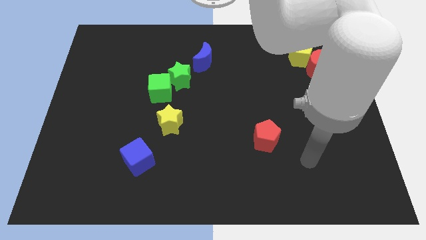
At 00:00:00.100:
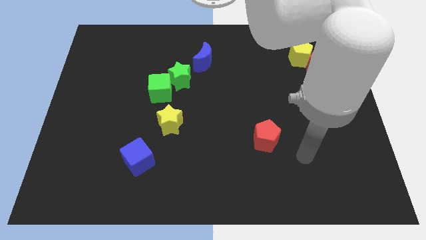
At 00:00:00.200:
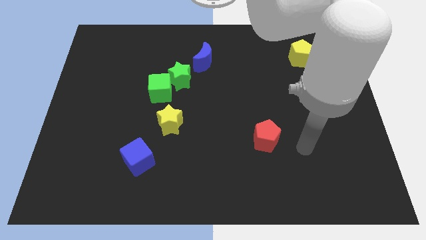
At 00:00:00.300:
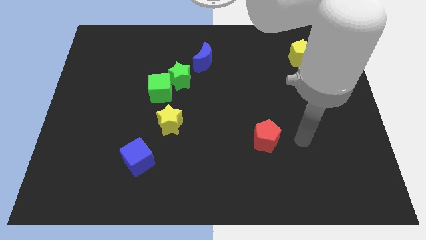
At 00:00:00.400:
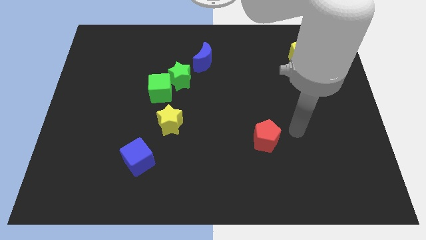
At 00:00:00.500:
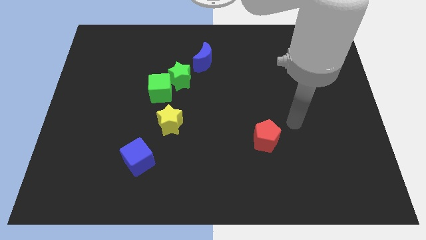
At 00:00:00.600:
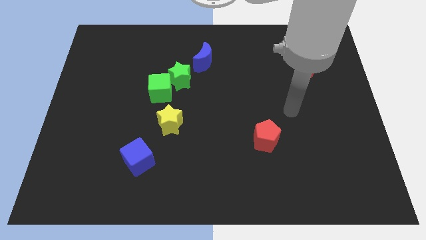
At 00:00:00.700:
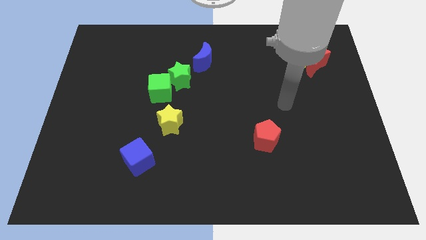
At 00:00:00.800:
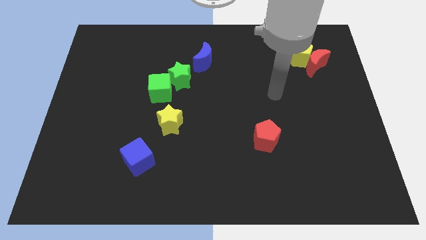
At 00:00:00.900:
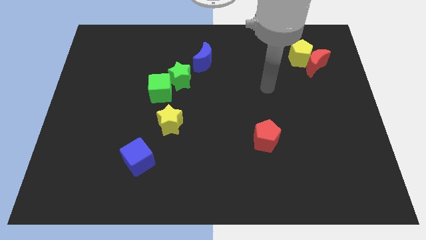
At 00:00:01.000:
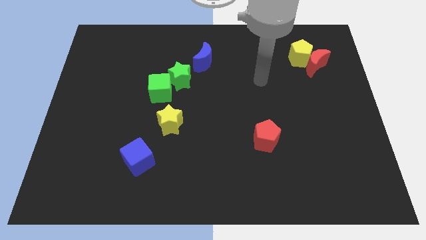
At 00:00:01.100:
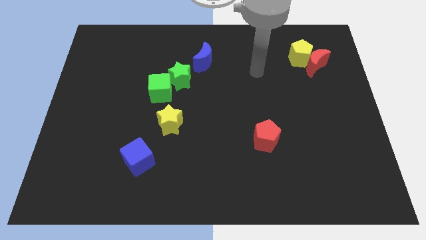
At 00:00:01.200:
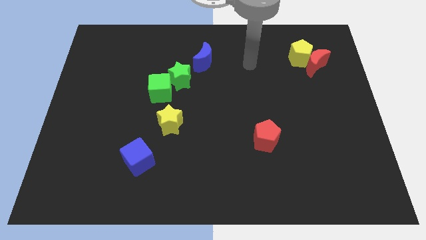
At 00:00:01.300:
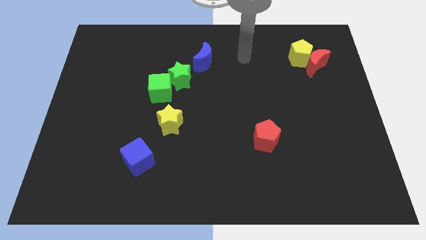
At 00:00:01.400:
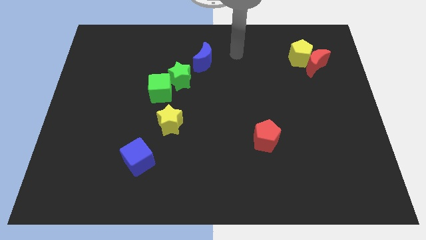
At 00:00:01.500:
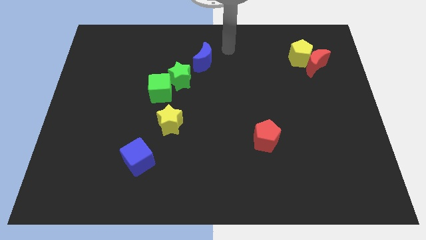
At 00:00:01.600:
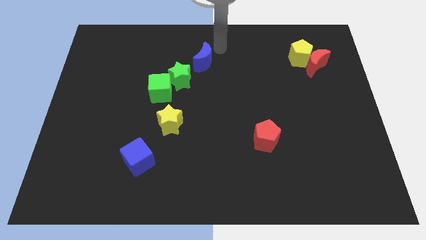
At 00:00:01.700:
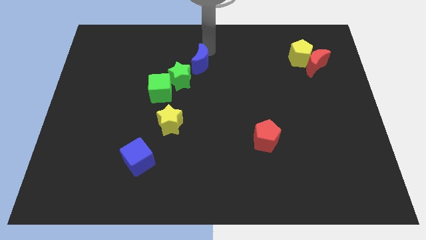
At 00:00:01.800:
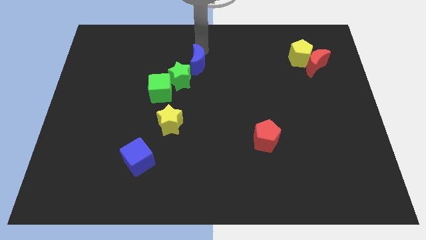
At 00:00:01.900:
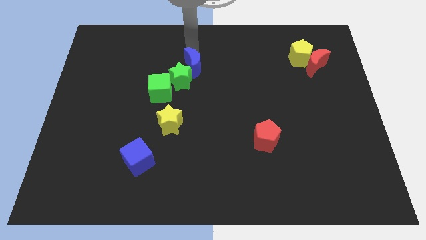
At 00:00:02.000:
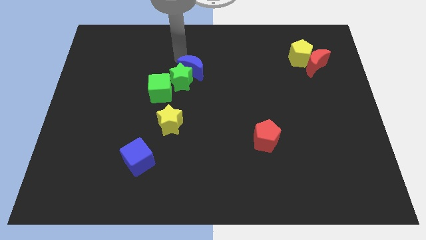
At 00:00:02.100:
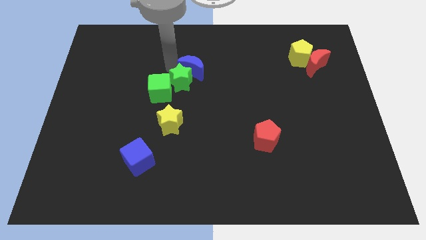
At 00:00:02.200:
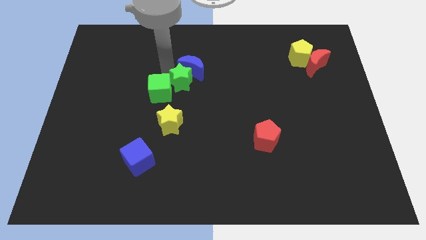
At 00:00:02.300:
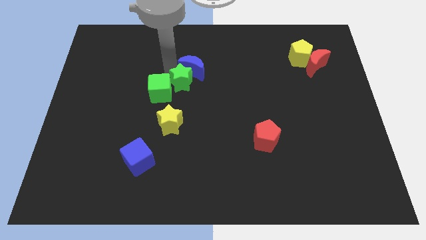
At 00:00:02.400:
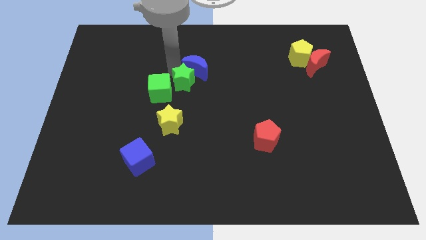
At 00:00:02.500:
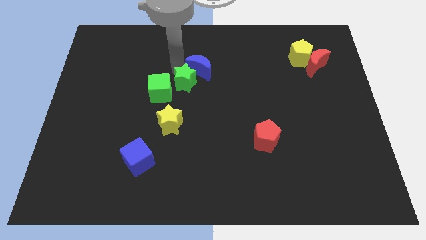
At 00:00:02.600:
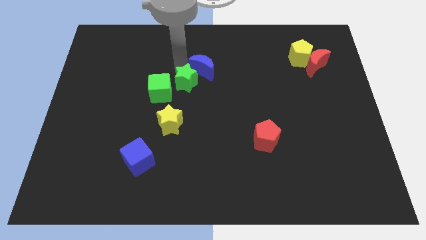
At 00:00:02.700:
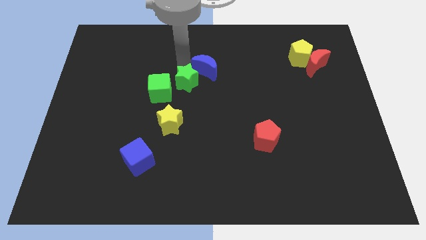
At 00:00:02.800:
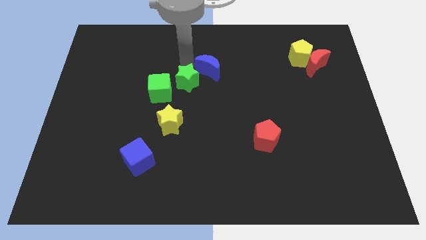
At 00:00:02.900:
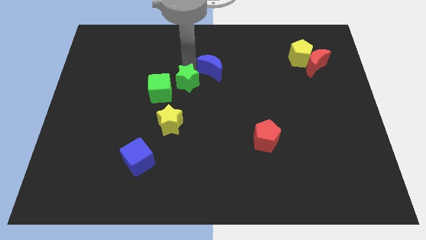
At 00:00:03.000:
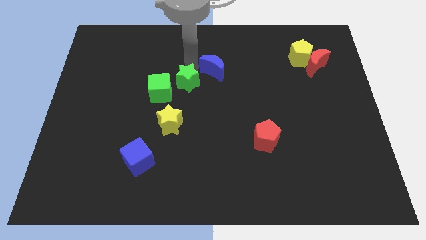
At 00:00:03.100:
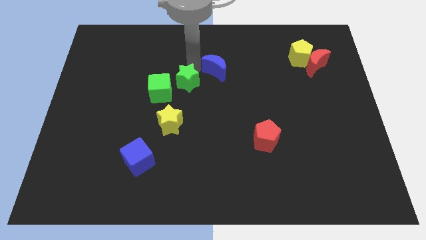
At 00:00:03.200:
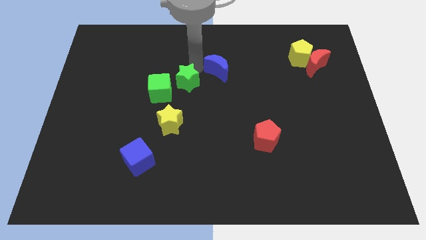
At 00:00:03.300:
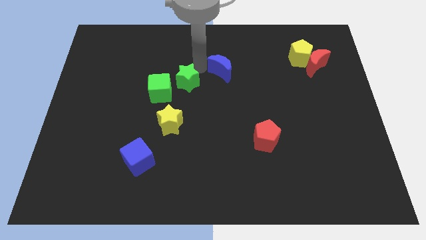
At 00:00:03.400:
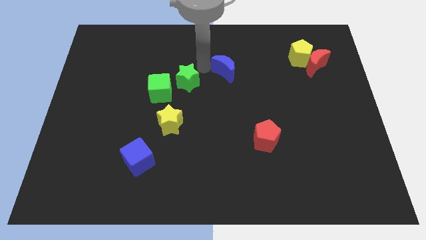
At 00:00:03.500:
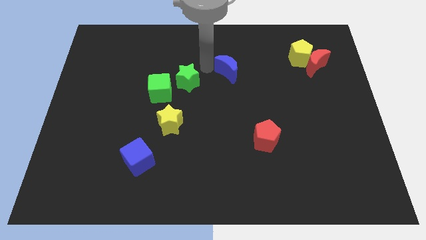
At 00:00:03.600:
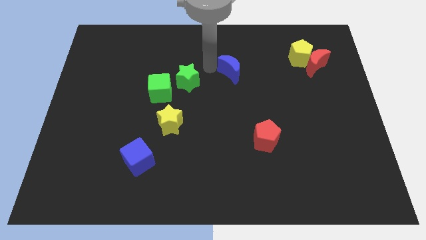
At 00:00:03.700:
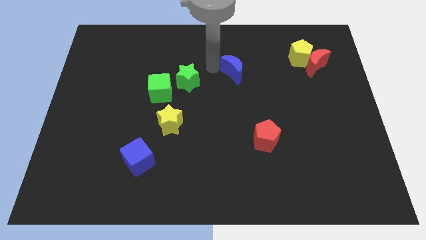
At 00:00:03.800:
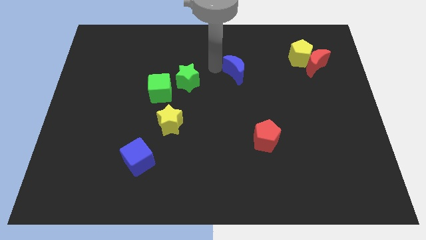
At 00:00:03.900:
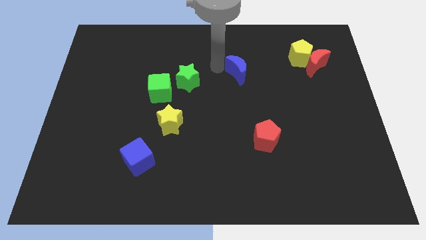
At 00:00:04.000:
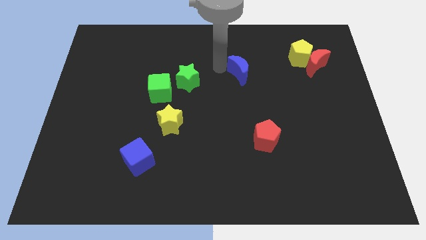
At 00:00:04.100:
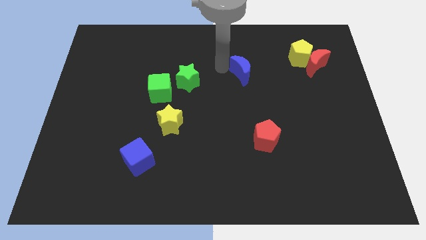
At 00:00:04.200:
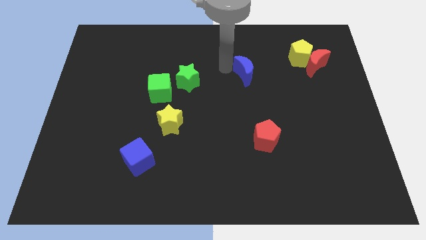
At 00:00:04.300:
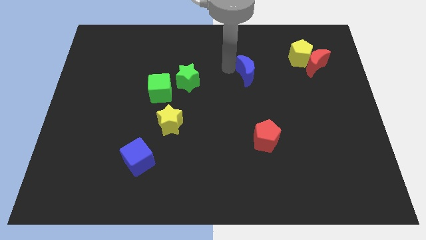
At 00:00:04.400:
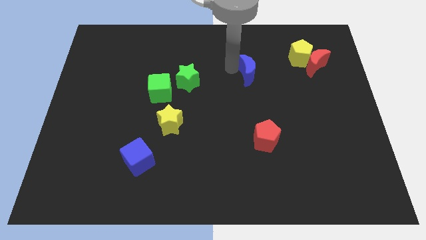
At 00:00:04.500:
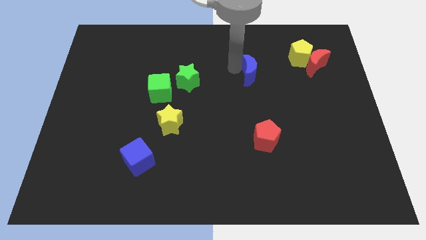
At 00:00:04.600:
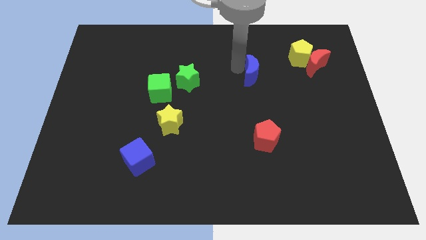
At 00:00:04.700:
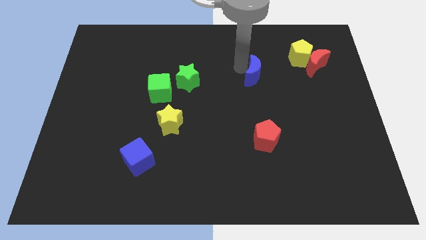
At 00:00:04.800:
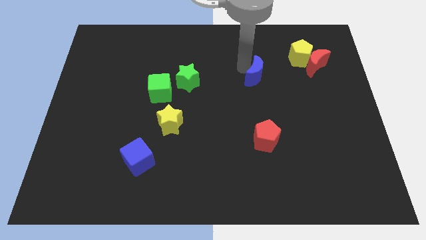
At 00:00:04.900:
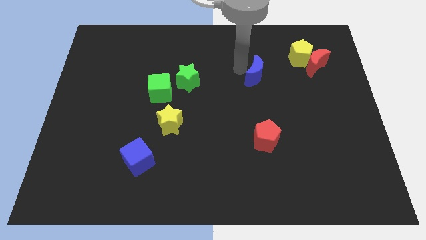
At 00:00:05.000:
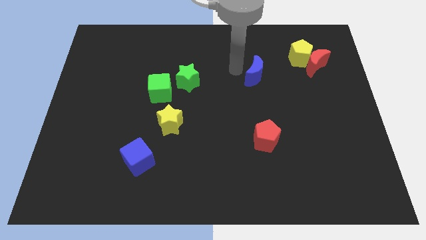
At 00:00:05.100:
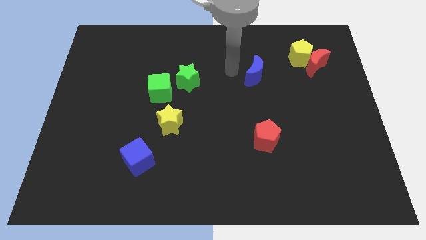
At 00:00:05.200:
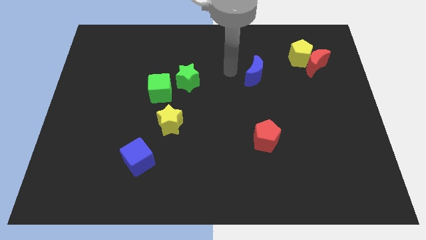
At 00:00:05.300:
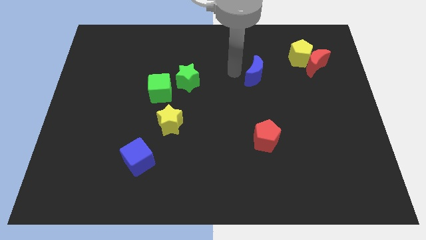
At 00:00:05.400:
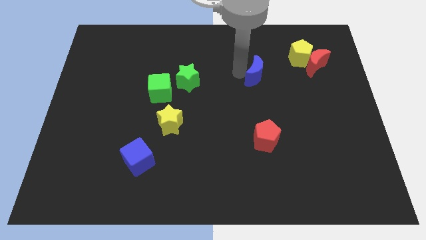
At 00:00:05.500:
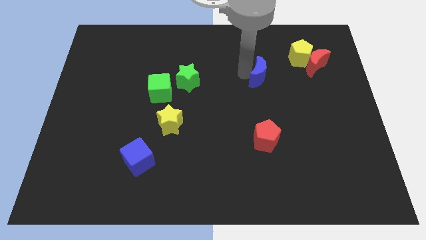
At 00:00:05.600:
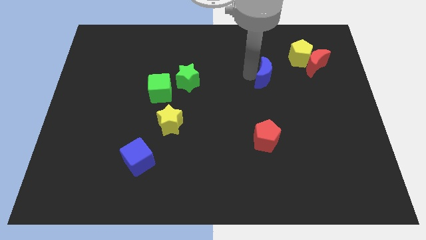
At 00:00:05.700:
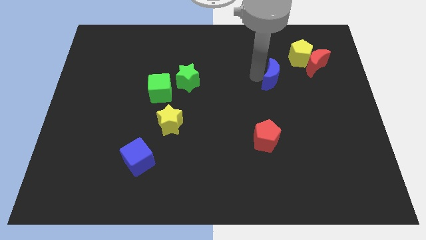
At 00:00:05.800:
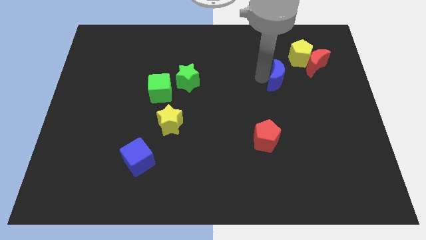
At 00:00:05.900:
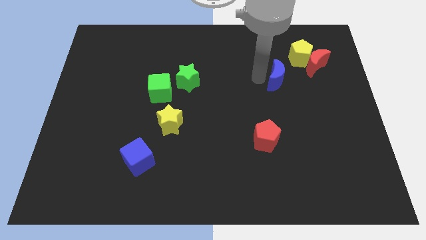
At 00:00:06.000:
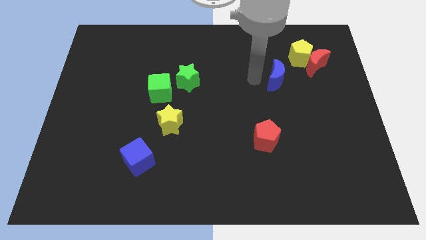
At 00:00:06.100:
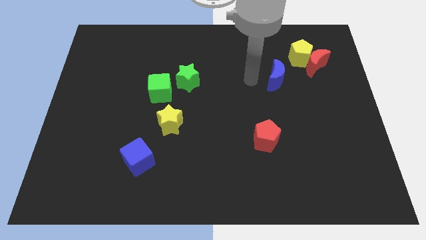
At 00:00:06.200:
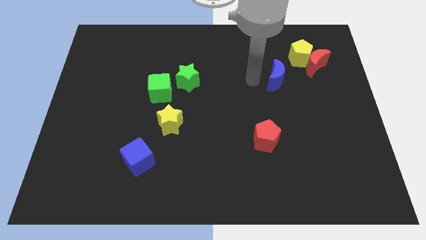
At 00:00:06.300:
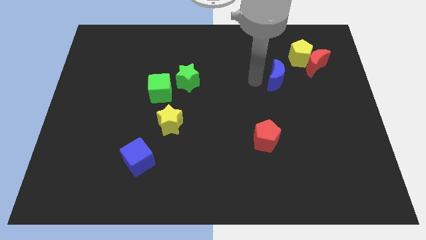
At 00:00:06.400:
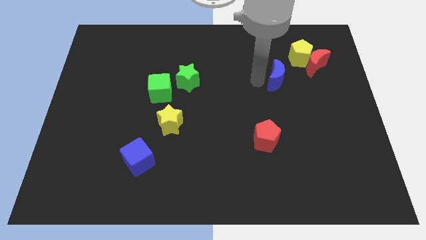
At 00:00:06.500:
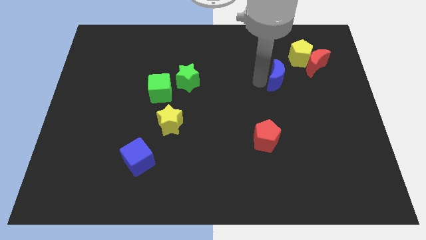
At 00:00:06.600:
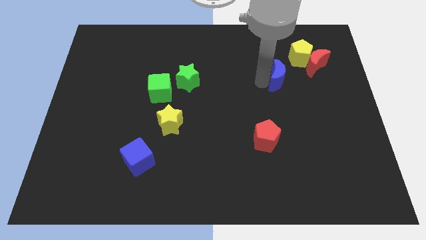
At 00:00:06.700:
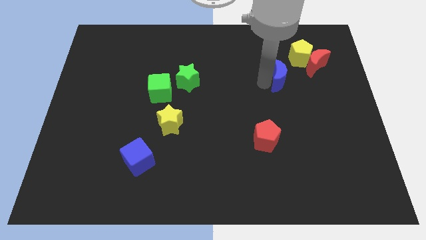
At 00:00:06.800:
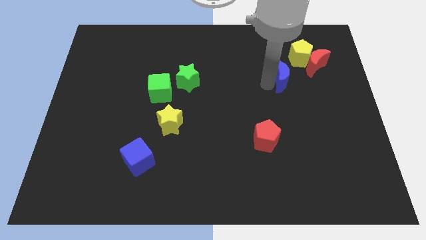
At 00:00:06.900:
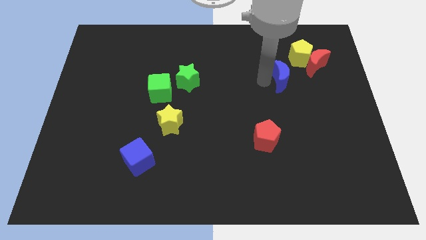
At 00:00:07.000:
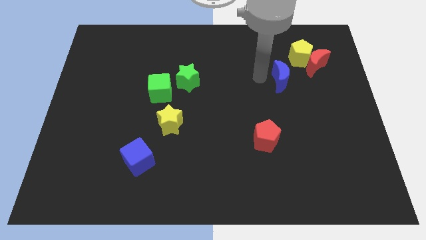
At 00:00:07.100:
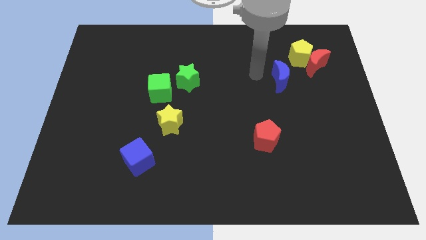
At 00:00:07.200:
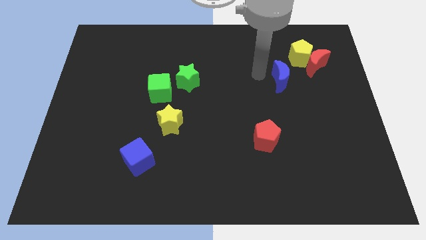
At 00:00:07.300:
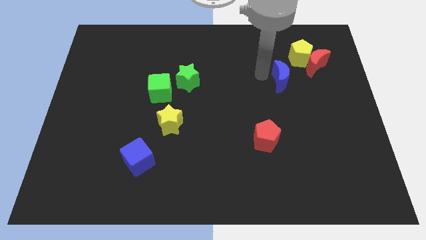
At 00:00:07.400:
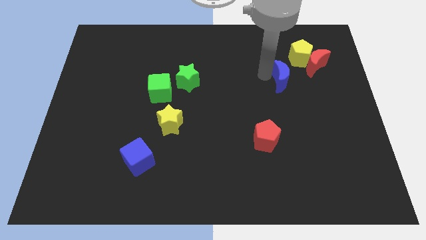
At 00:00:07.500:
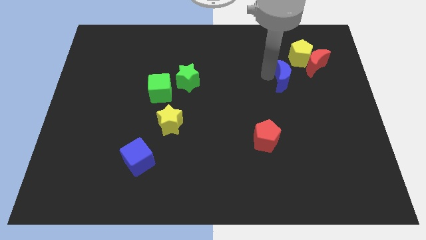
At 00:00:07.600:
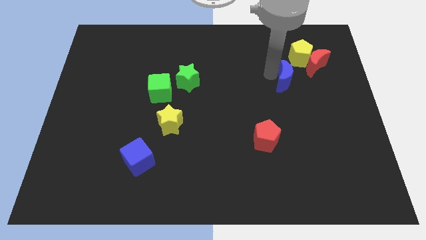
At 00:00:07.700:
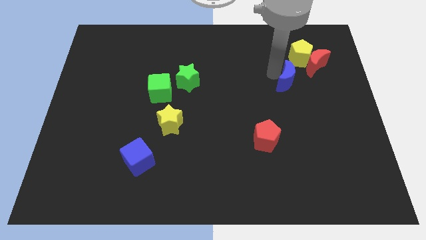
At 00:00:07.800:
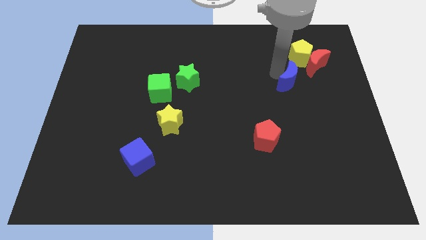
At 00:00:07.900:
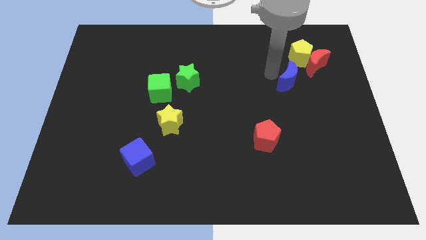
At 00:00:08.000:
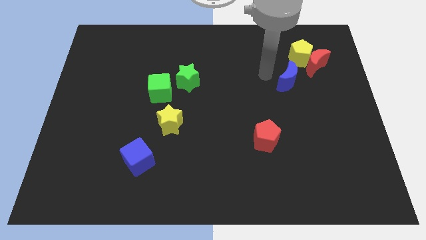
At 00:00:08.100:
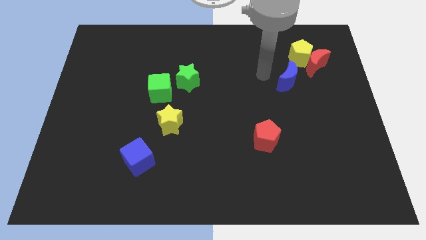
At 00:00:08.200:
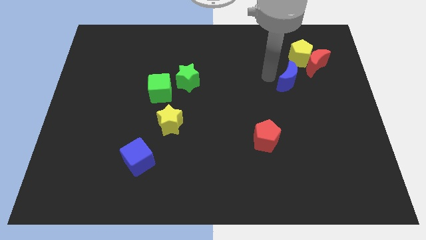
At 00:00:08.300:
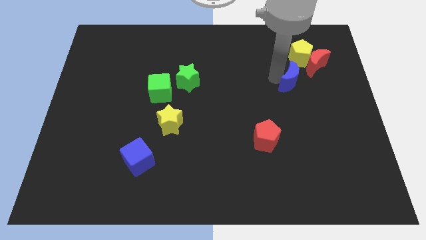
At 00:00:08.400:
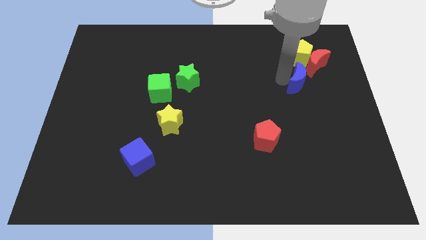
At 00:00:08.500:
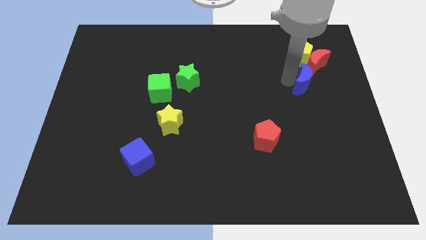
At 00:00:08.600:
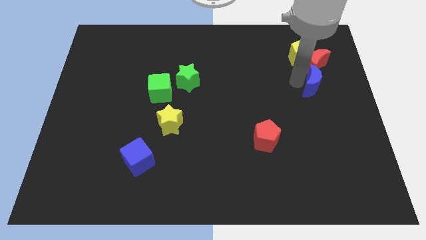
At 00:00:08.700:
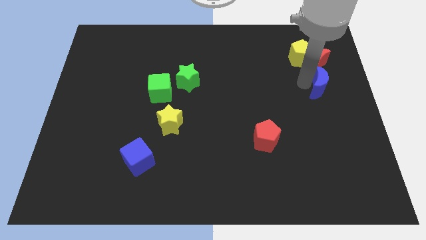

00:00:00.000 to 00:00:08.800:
put the blue moon to the right side of the board
